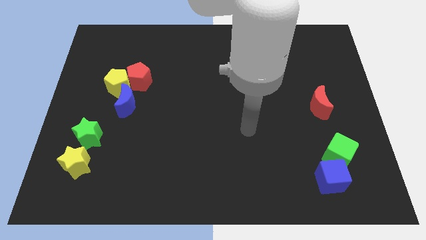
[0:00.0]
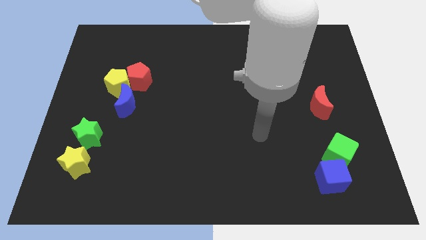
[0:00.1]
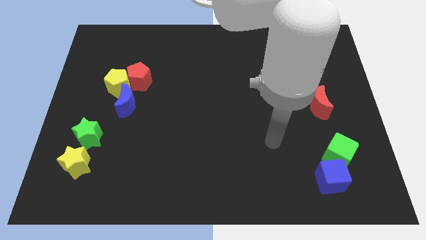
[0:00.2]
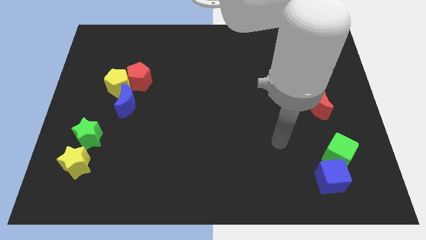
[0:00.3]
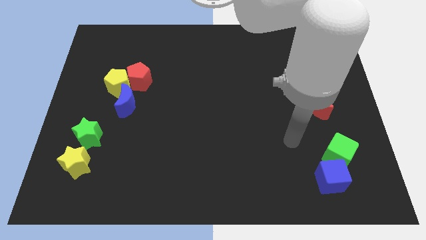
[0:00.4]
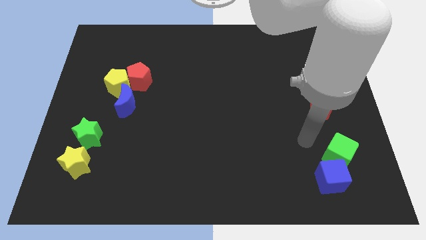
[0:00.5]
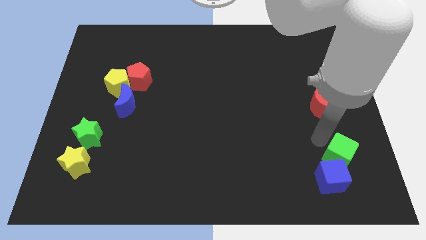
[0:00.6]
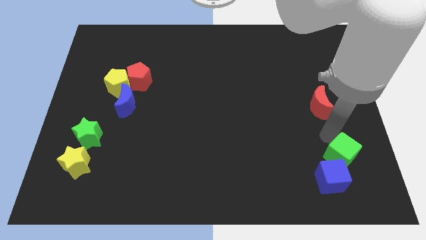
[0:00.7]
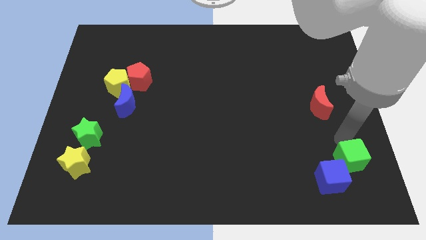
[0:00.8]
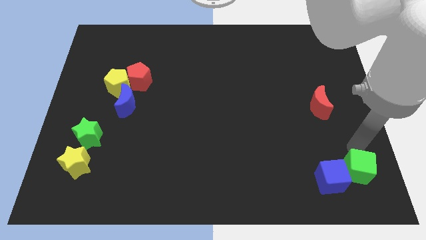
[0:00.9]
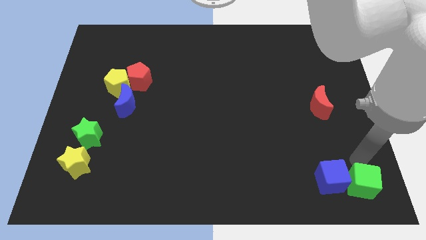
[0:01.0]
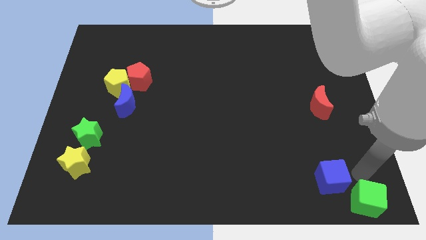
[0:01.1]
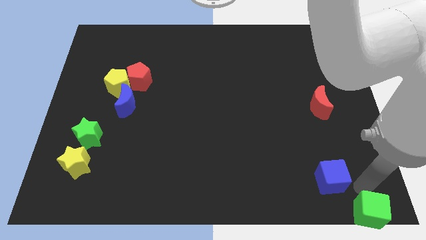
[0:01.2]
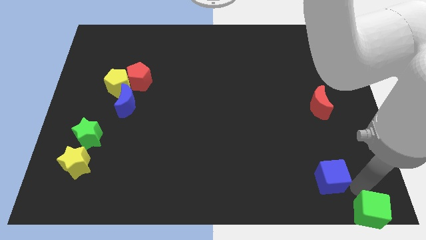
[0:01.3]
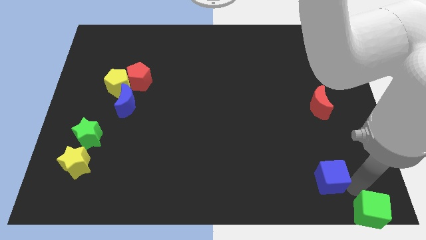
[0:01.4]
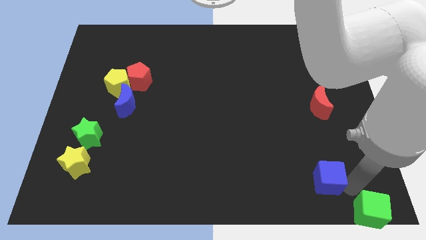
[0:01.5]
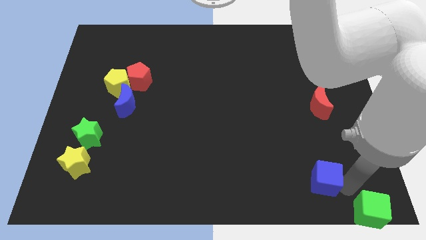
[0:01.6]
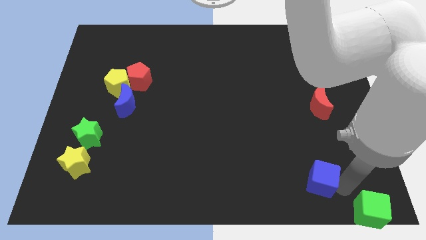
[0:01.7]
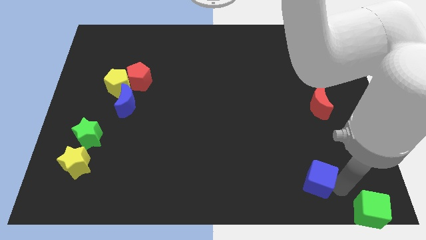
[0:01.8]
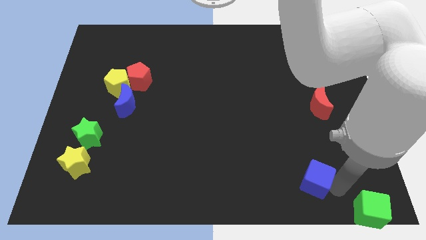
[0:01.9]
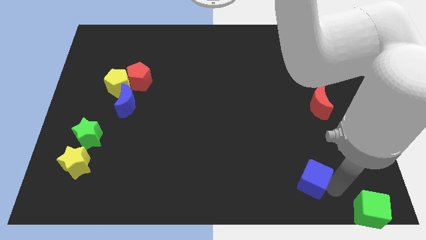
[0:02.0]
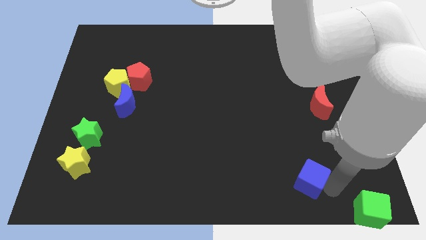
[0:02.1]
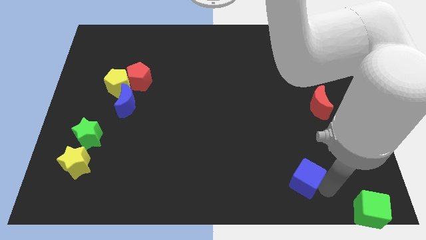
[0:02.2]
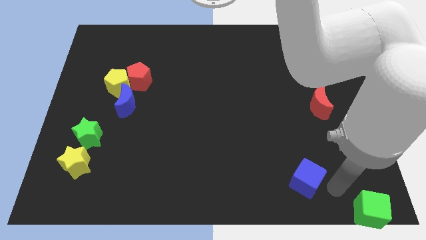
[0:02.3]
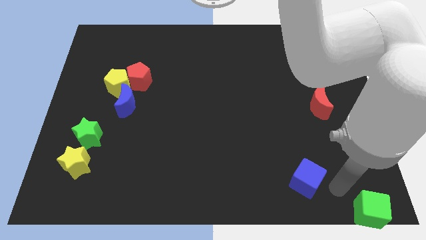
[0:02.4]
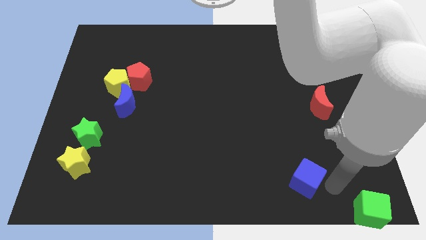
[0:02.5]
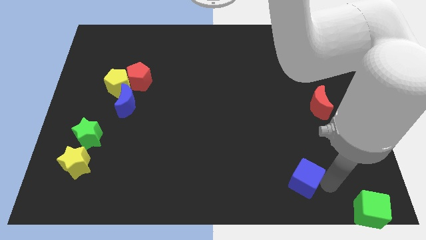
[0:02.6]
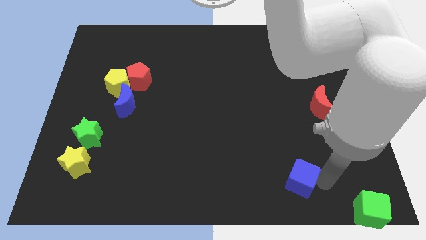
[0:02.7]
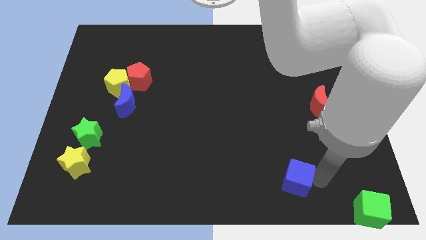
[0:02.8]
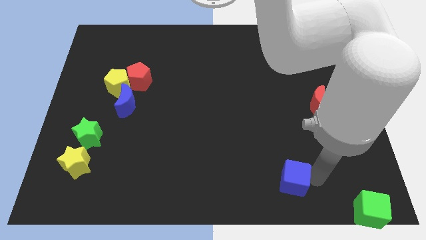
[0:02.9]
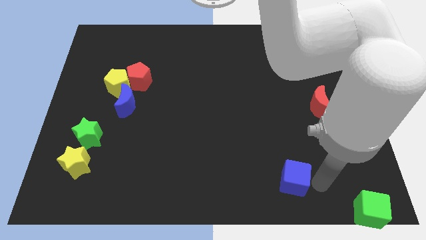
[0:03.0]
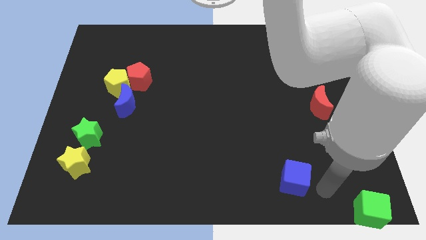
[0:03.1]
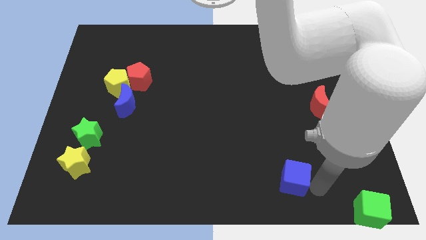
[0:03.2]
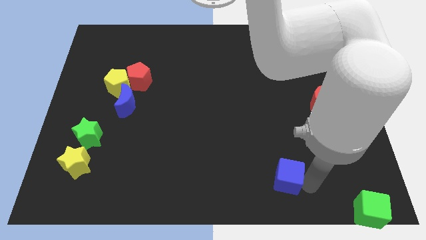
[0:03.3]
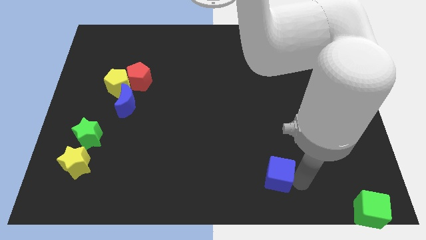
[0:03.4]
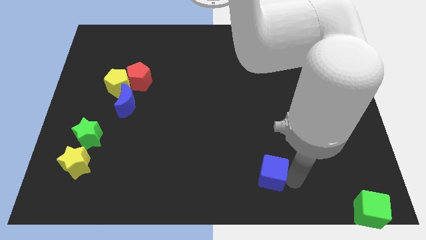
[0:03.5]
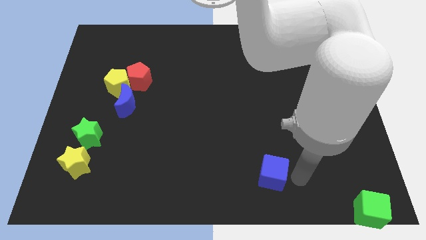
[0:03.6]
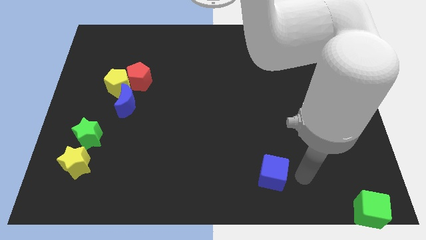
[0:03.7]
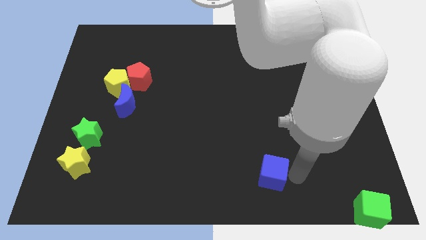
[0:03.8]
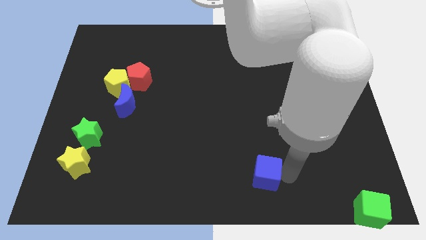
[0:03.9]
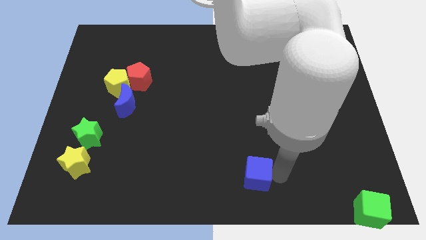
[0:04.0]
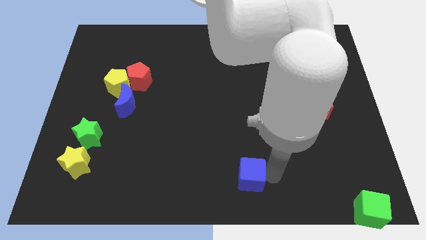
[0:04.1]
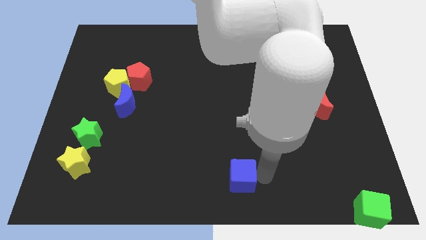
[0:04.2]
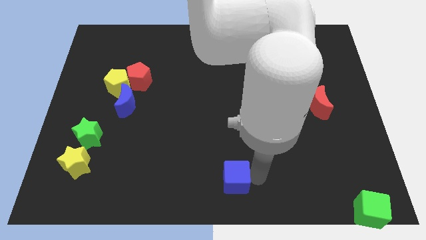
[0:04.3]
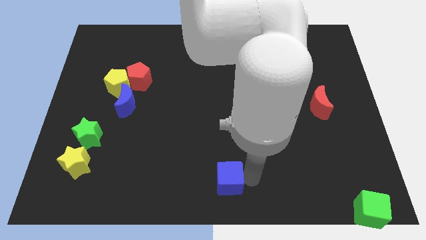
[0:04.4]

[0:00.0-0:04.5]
move the blue cube left

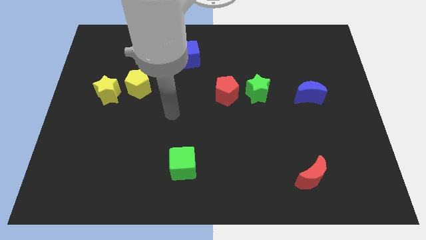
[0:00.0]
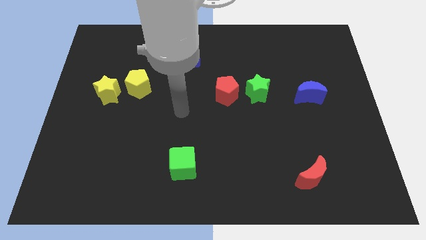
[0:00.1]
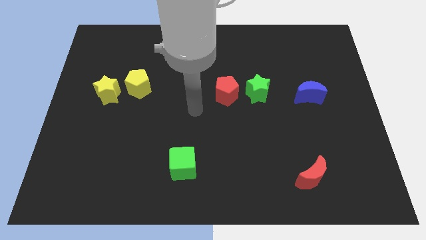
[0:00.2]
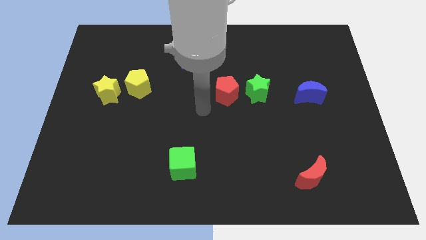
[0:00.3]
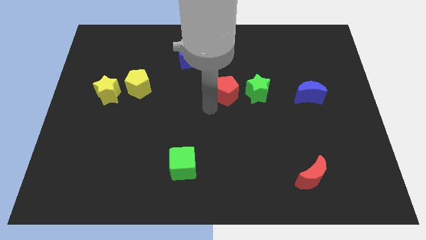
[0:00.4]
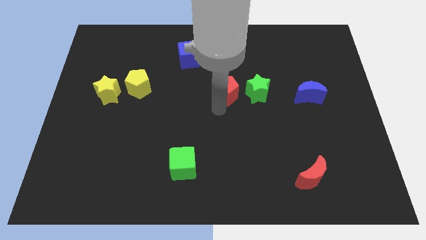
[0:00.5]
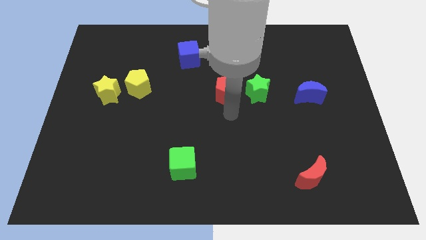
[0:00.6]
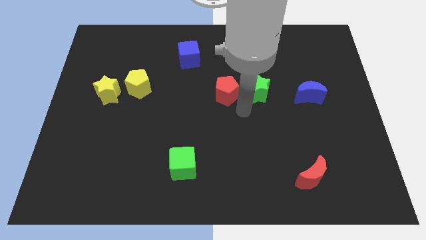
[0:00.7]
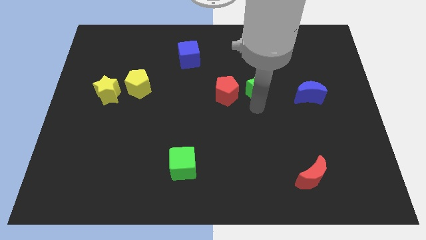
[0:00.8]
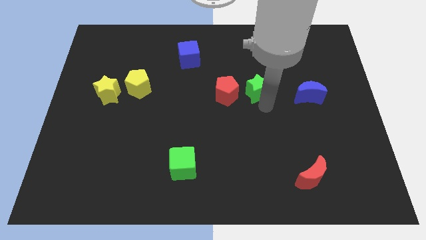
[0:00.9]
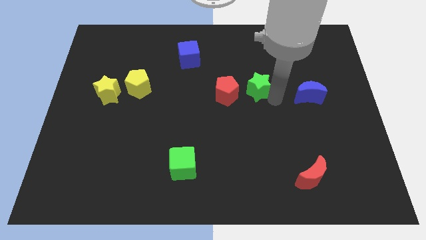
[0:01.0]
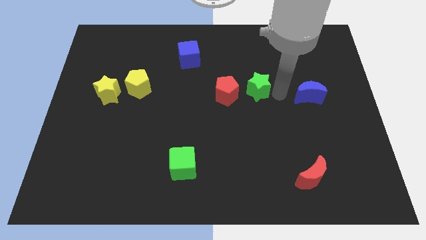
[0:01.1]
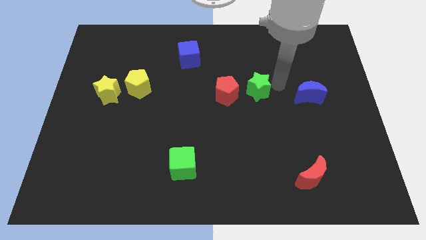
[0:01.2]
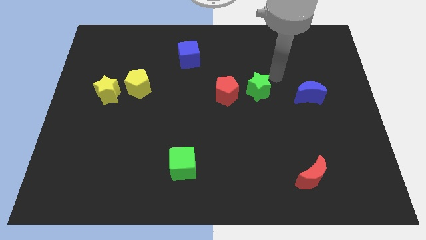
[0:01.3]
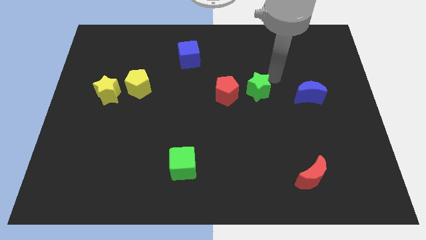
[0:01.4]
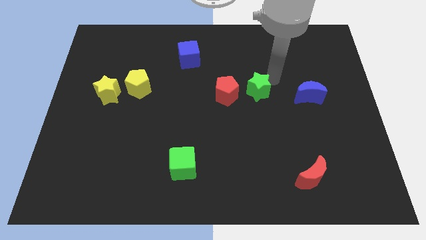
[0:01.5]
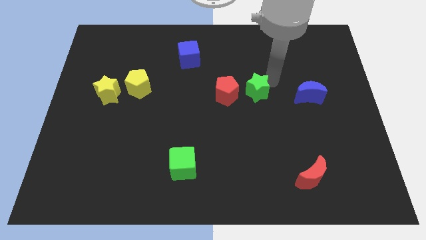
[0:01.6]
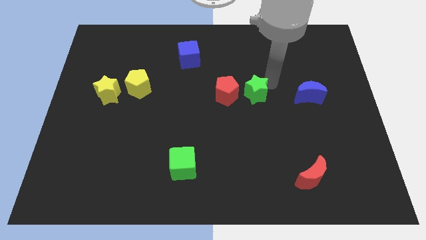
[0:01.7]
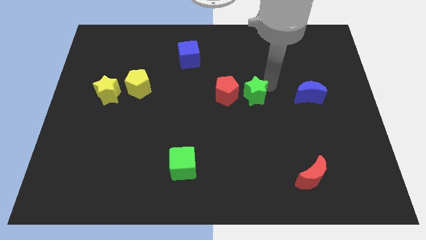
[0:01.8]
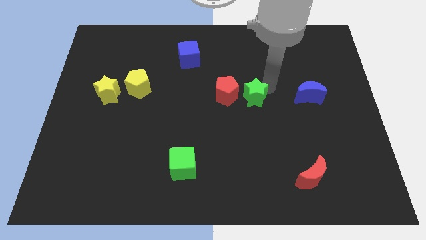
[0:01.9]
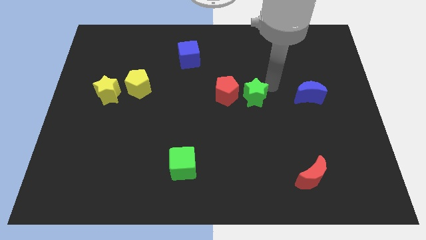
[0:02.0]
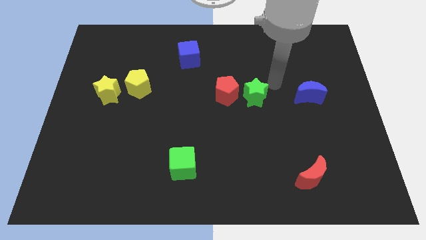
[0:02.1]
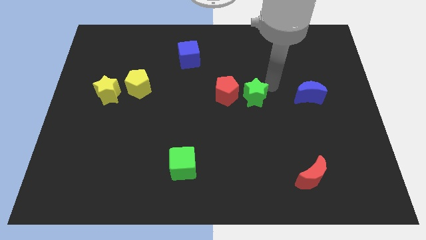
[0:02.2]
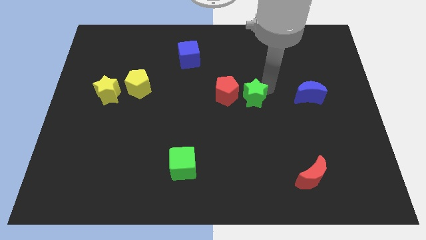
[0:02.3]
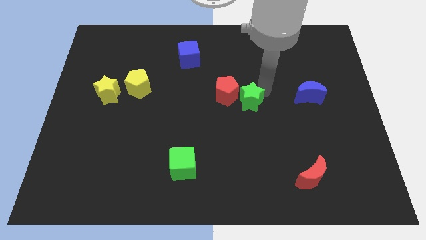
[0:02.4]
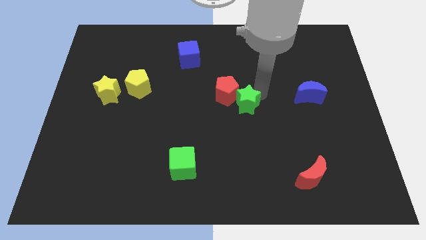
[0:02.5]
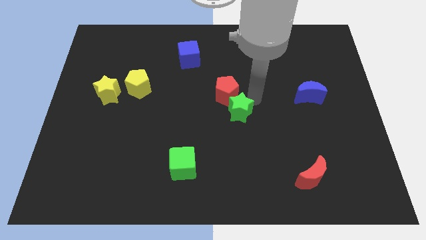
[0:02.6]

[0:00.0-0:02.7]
move the green star somewhat downwards and left

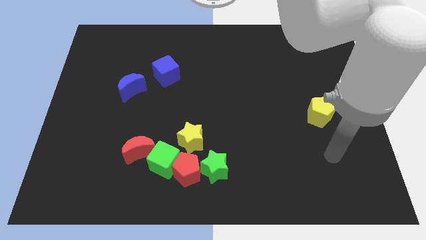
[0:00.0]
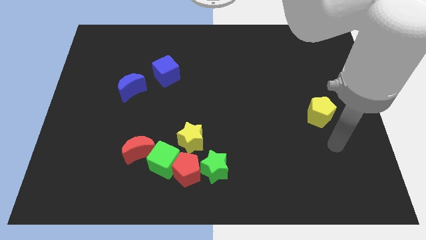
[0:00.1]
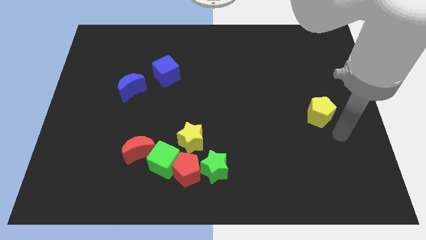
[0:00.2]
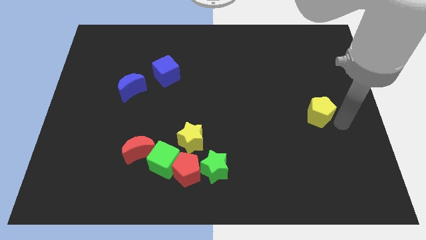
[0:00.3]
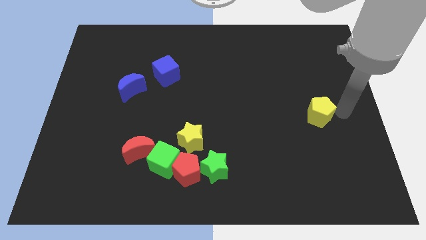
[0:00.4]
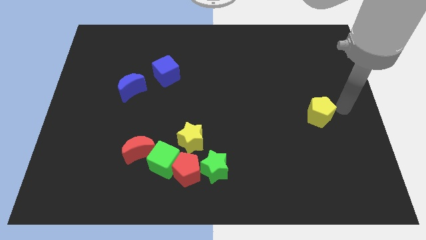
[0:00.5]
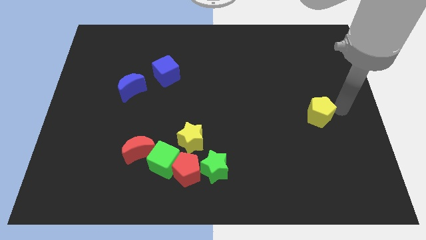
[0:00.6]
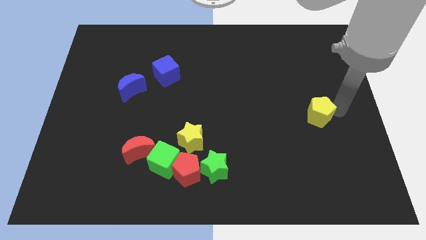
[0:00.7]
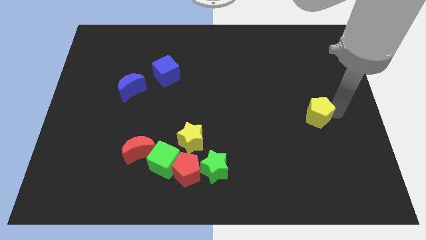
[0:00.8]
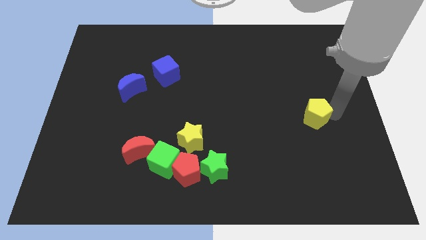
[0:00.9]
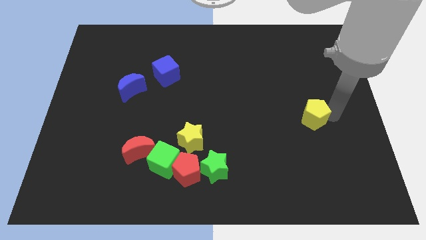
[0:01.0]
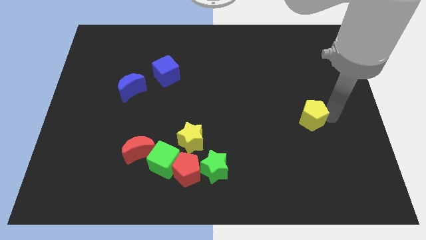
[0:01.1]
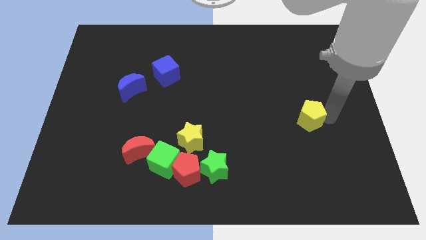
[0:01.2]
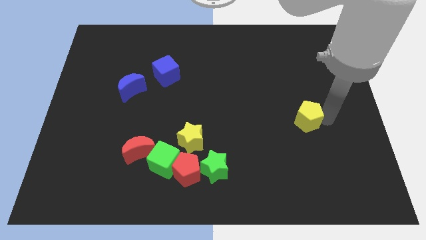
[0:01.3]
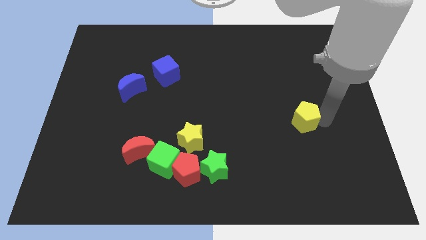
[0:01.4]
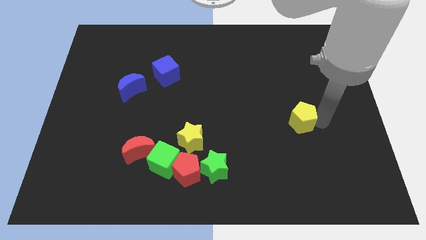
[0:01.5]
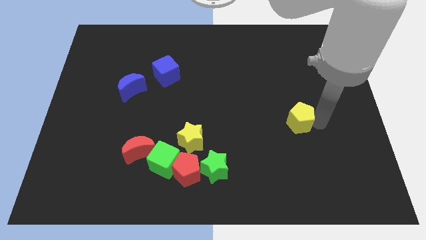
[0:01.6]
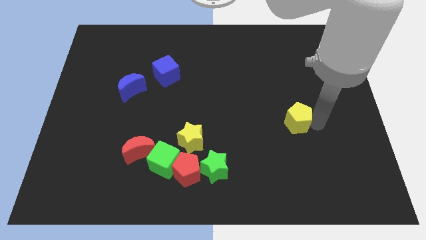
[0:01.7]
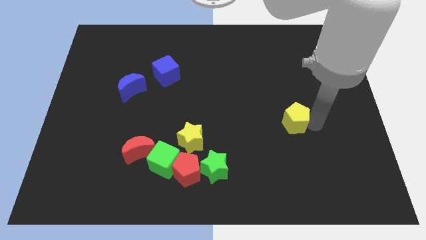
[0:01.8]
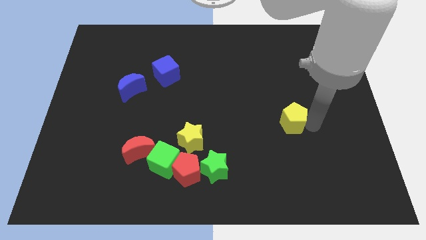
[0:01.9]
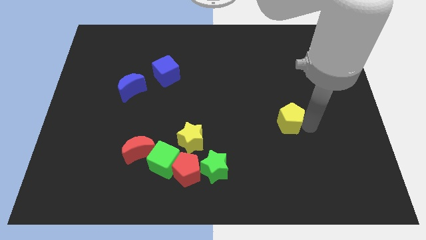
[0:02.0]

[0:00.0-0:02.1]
slightly slide the yellow pentagon to the left
